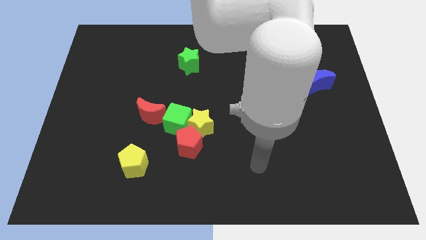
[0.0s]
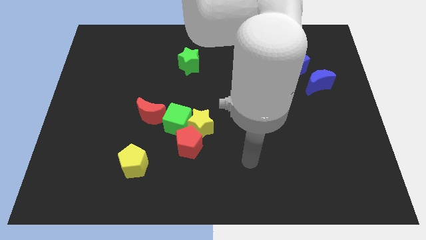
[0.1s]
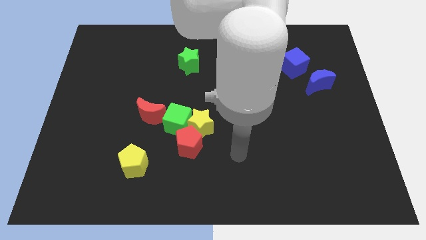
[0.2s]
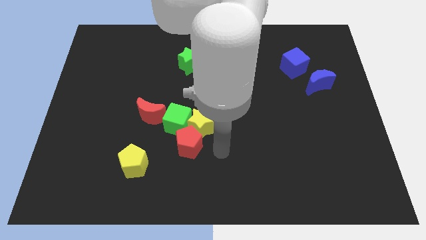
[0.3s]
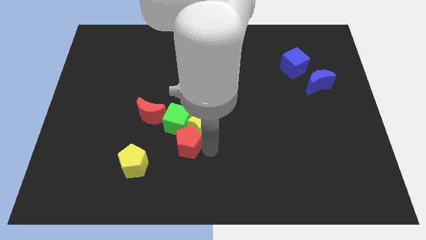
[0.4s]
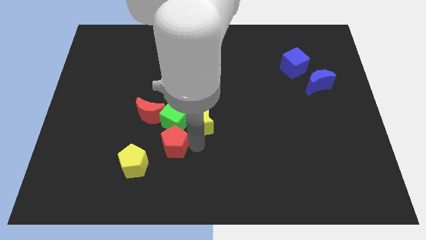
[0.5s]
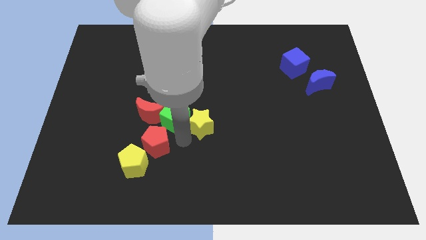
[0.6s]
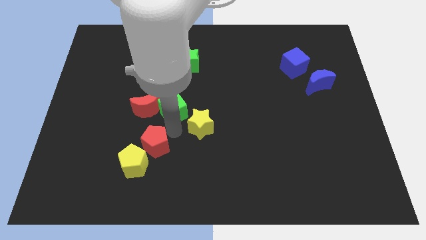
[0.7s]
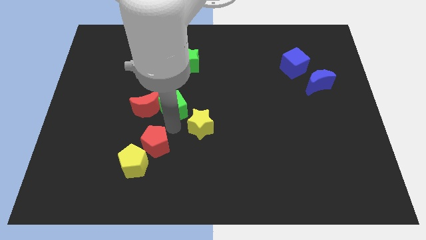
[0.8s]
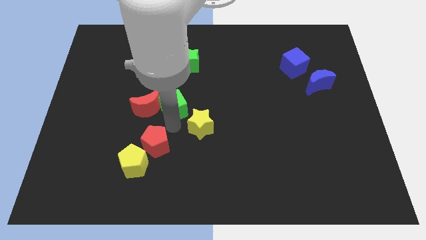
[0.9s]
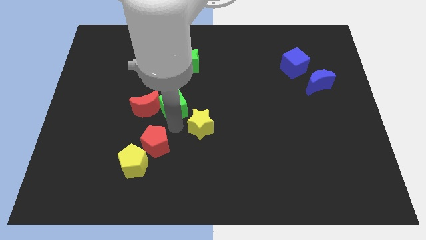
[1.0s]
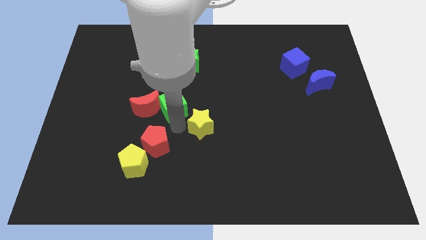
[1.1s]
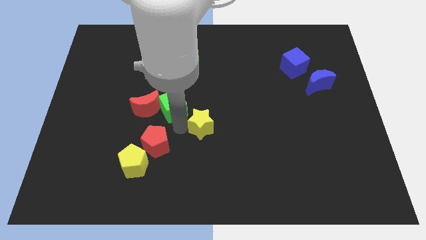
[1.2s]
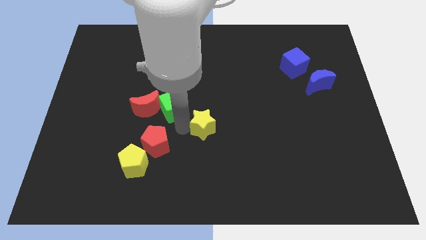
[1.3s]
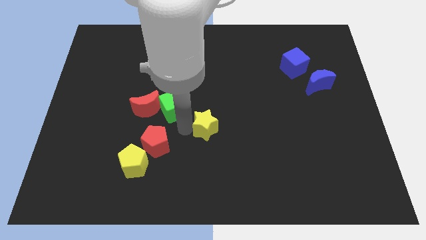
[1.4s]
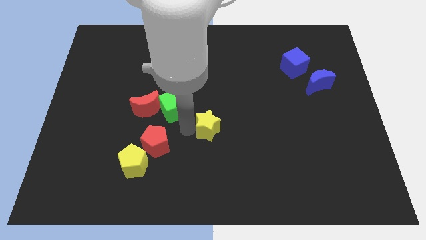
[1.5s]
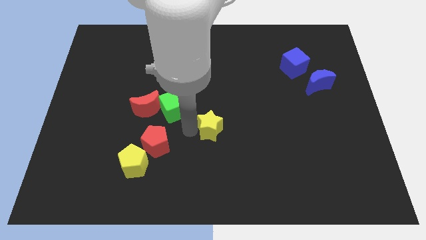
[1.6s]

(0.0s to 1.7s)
move the yellow star away from the green cube and red pentagon

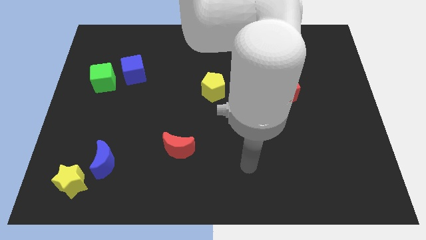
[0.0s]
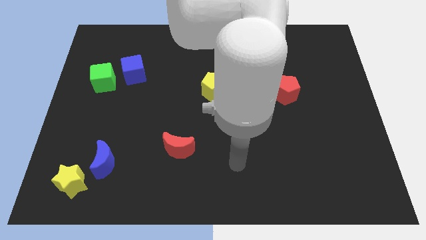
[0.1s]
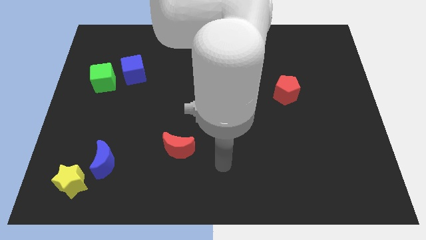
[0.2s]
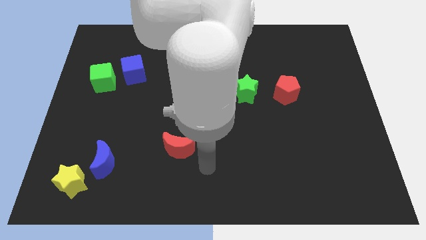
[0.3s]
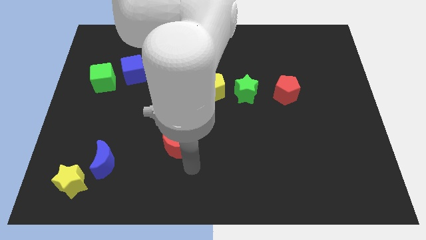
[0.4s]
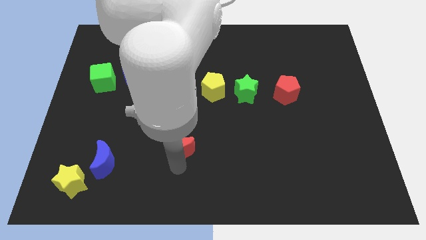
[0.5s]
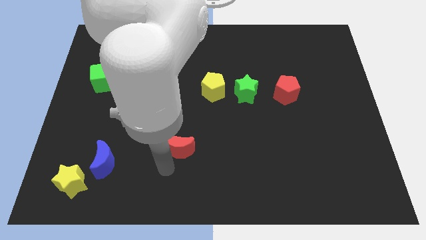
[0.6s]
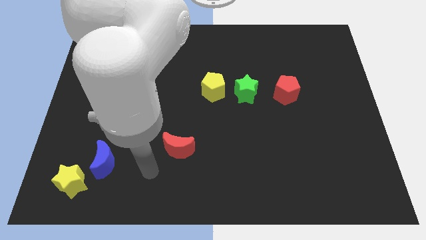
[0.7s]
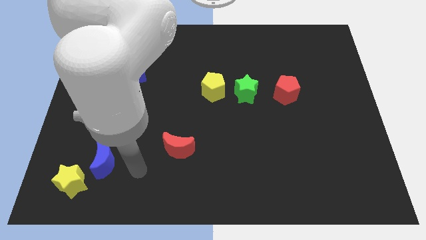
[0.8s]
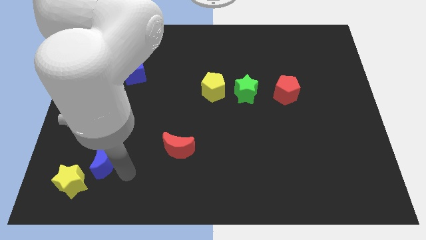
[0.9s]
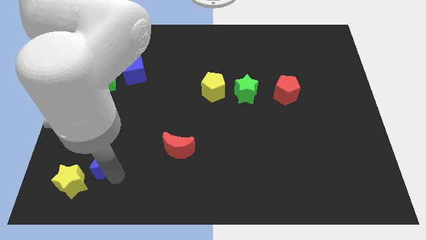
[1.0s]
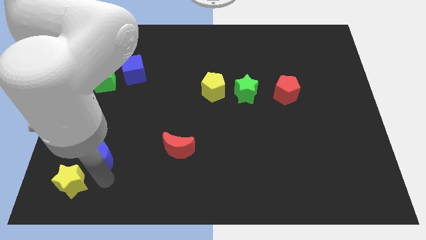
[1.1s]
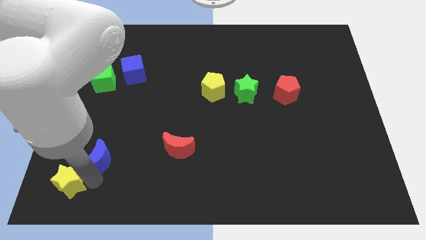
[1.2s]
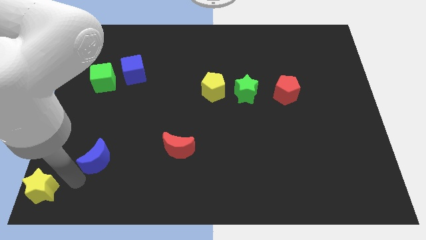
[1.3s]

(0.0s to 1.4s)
pull the blue moon apart from the yellow star

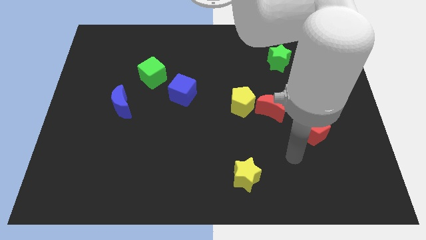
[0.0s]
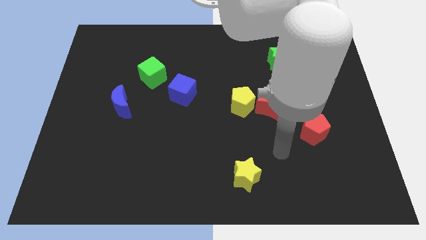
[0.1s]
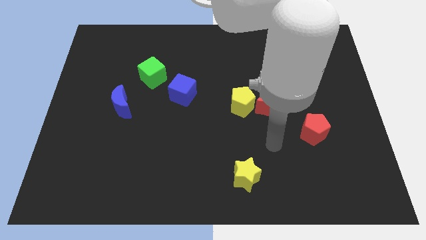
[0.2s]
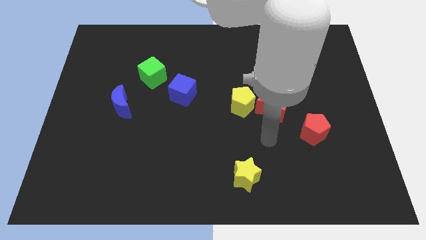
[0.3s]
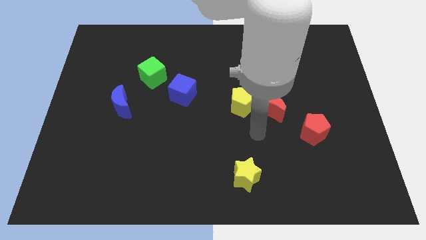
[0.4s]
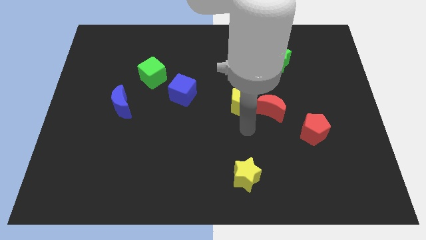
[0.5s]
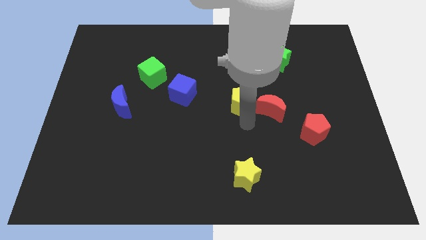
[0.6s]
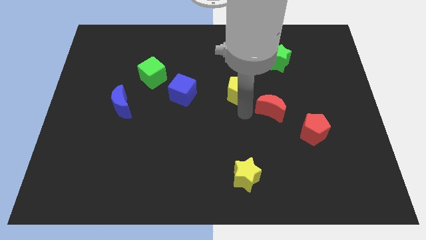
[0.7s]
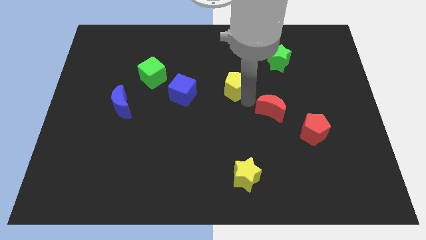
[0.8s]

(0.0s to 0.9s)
pull the red moon apart from the yellow pentagon

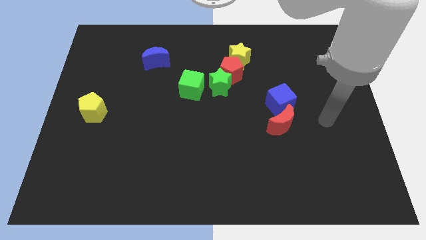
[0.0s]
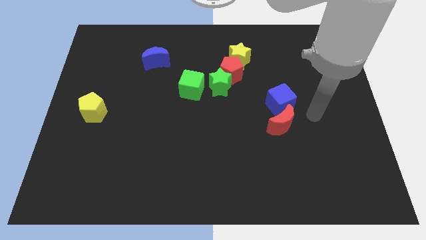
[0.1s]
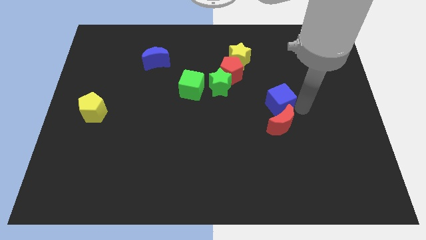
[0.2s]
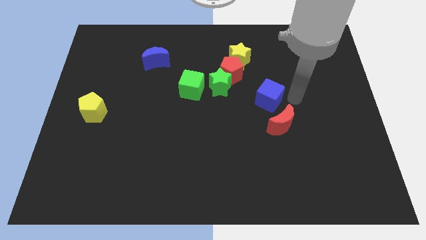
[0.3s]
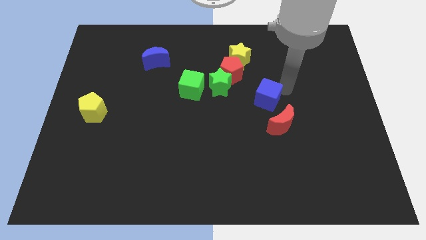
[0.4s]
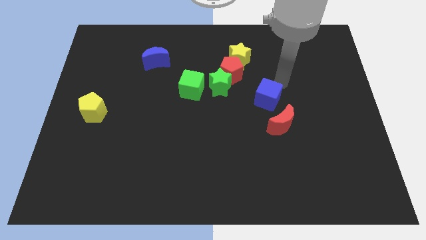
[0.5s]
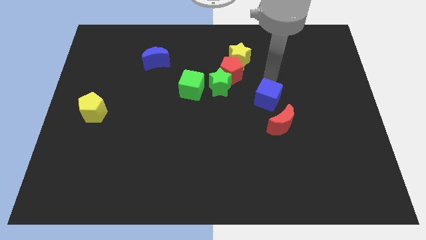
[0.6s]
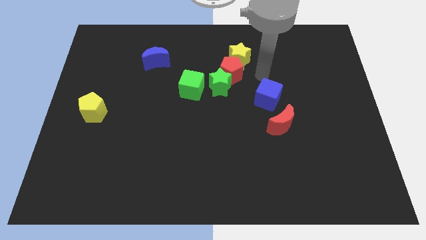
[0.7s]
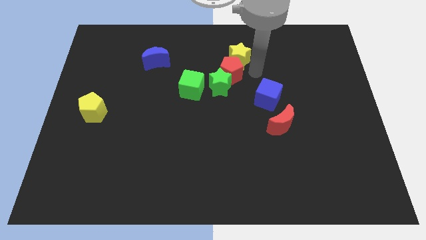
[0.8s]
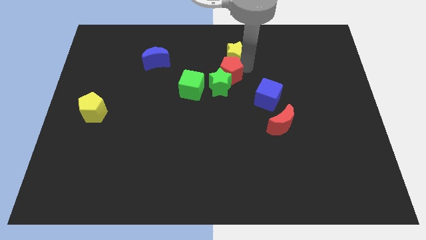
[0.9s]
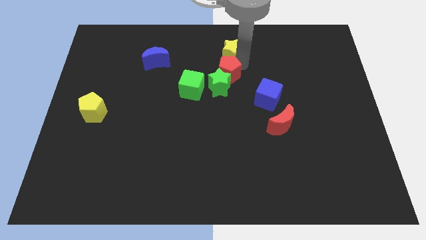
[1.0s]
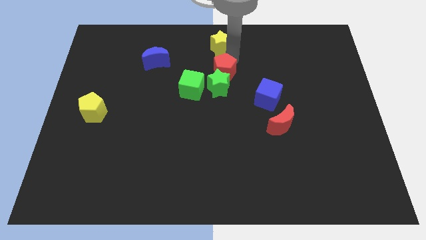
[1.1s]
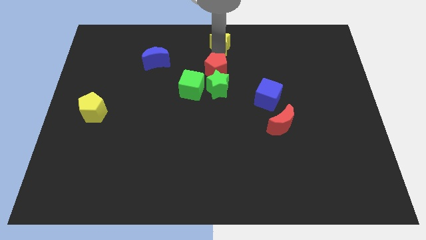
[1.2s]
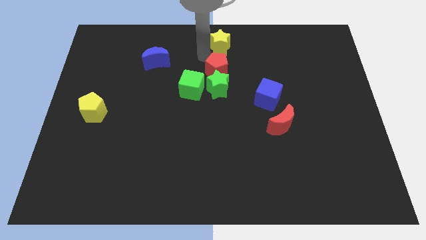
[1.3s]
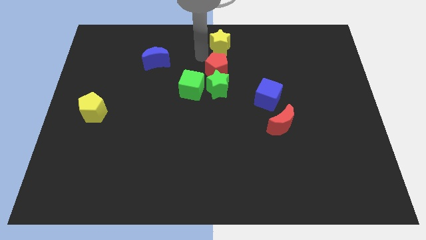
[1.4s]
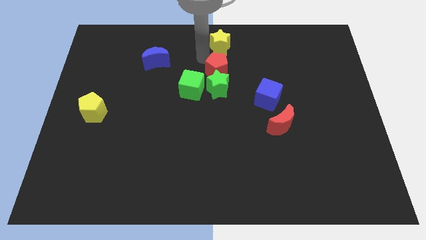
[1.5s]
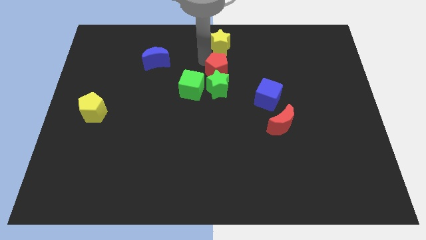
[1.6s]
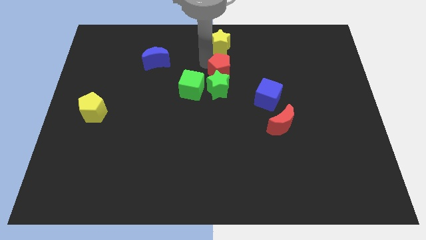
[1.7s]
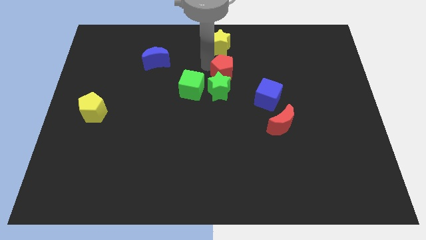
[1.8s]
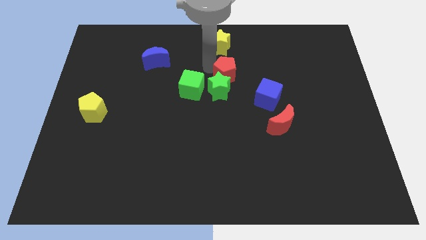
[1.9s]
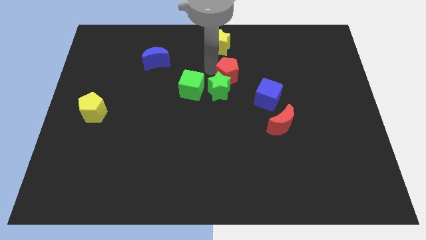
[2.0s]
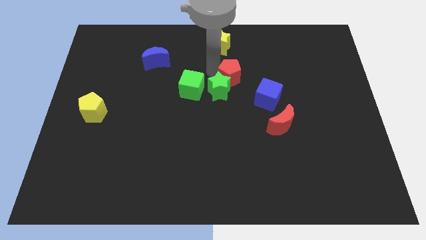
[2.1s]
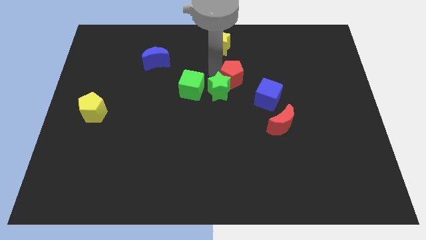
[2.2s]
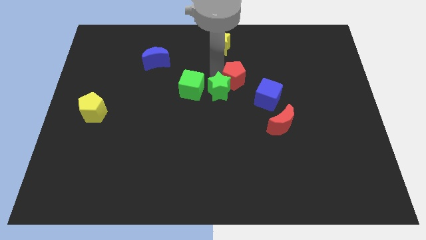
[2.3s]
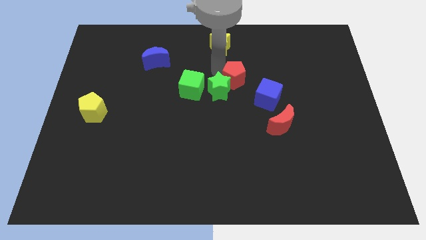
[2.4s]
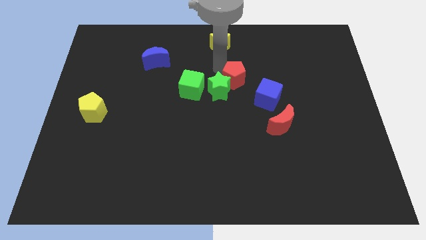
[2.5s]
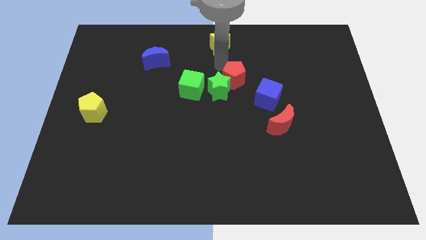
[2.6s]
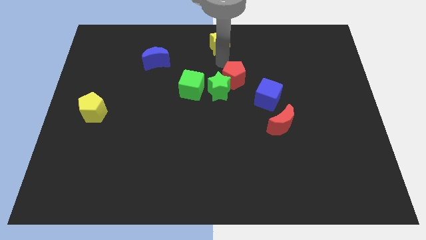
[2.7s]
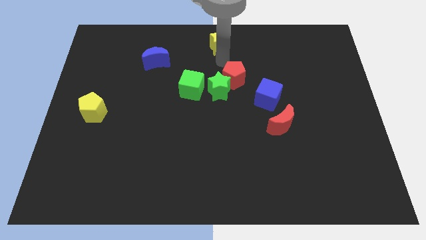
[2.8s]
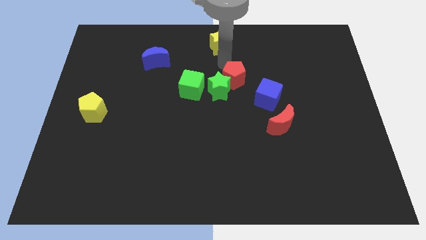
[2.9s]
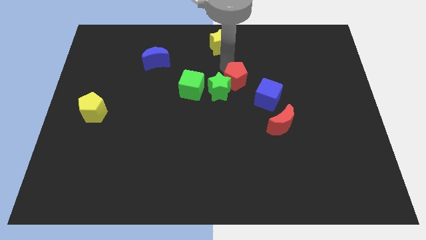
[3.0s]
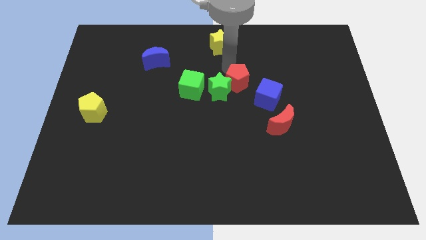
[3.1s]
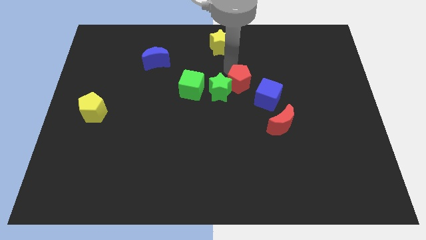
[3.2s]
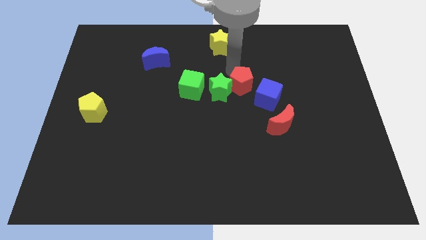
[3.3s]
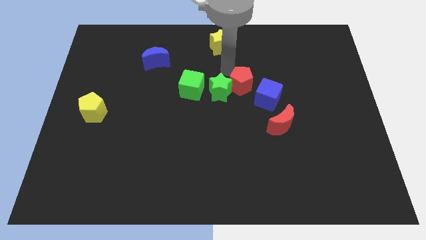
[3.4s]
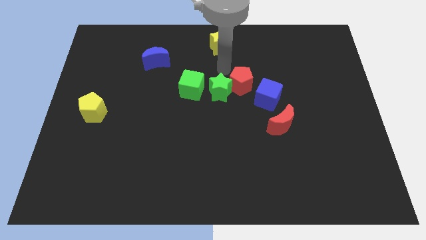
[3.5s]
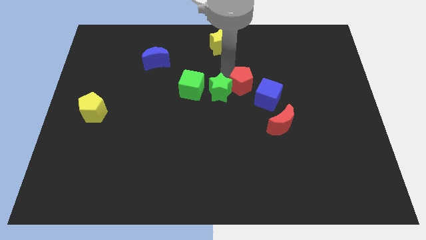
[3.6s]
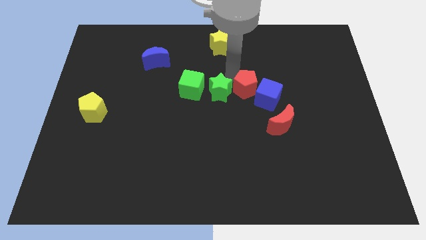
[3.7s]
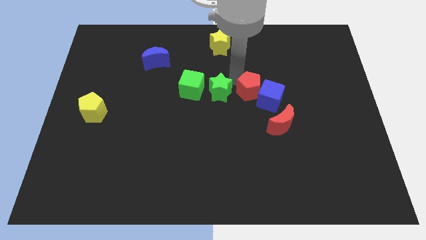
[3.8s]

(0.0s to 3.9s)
separate the red pentagon from the green star and yellow star

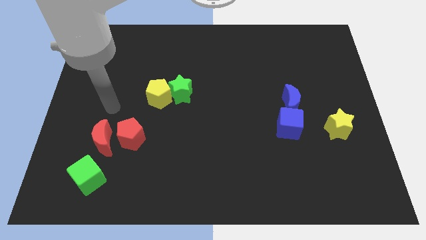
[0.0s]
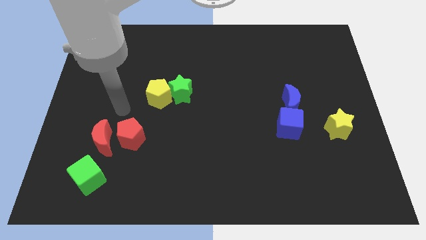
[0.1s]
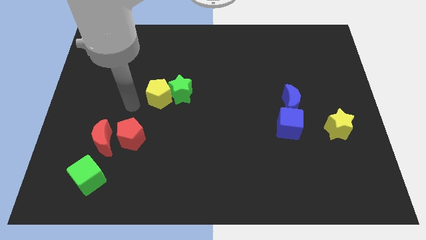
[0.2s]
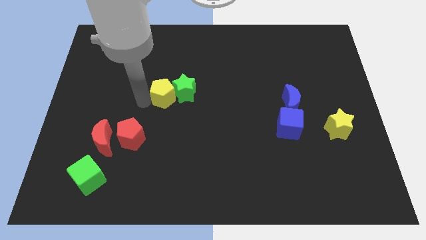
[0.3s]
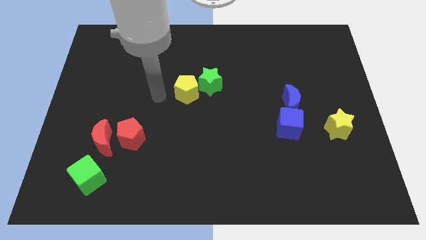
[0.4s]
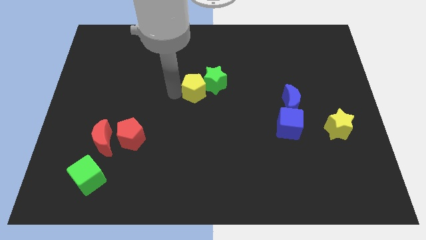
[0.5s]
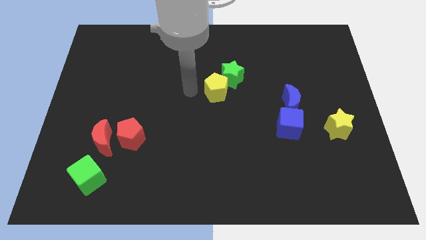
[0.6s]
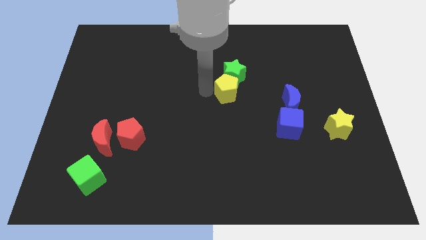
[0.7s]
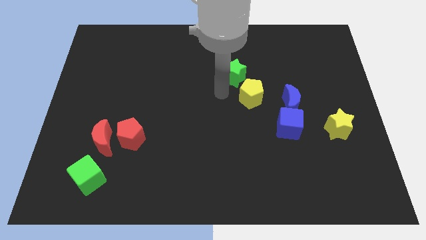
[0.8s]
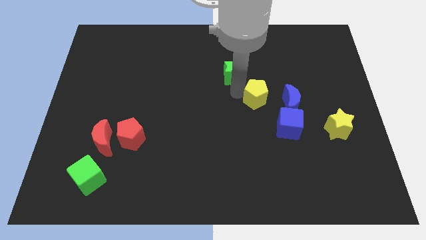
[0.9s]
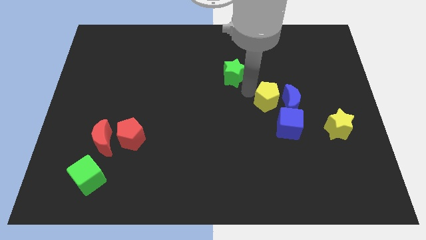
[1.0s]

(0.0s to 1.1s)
move the green star away from the yellow pentagon

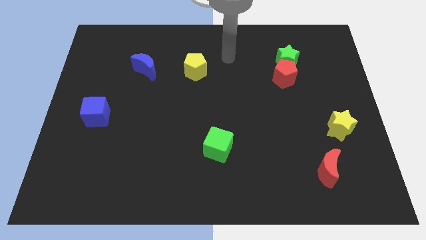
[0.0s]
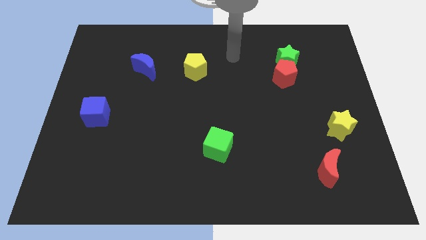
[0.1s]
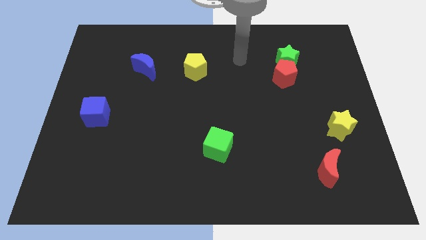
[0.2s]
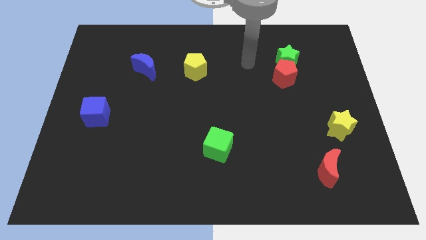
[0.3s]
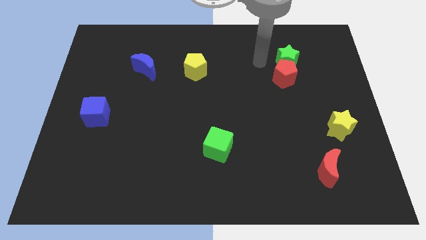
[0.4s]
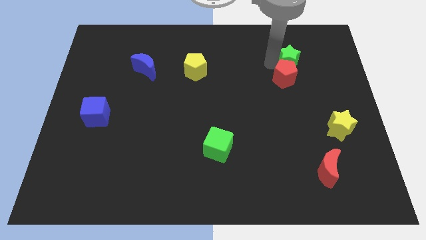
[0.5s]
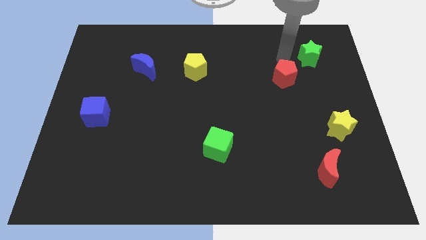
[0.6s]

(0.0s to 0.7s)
separate the red pentagon from the green star
